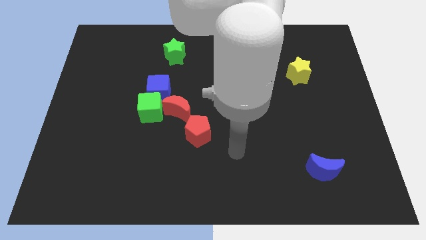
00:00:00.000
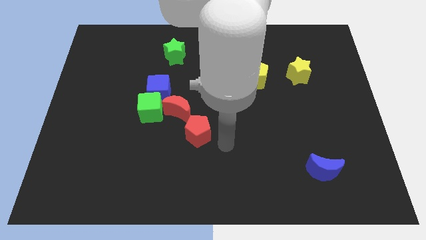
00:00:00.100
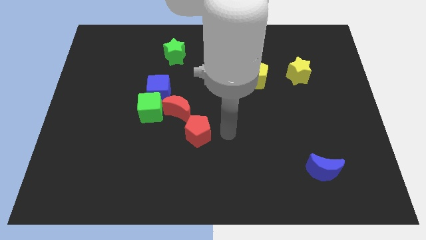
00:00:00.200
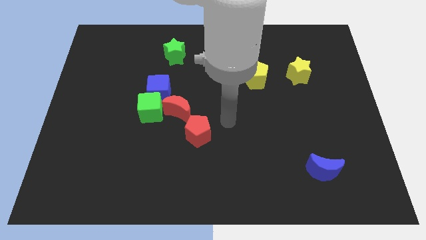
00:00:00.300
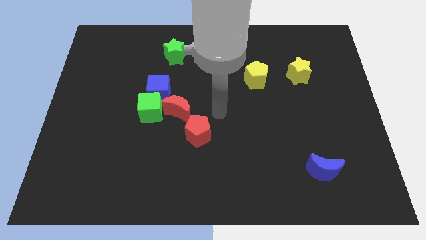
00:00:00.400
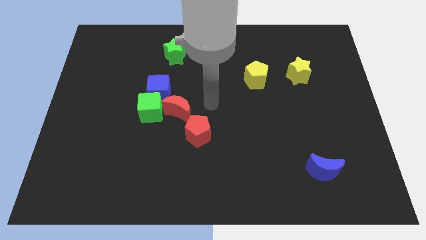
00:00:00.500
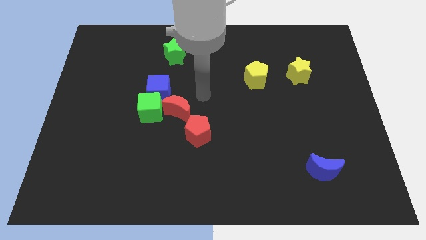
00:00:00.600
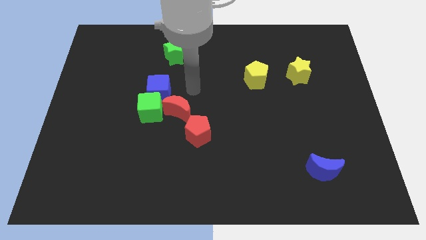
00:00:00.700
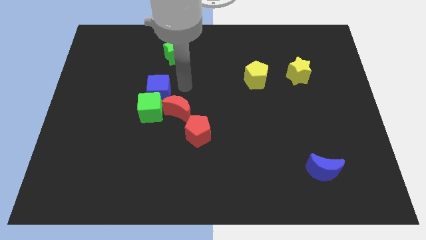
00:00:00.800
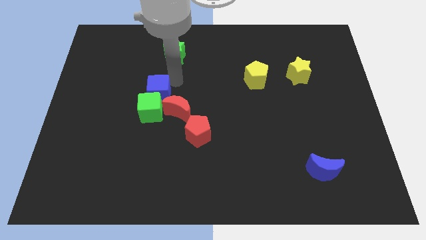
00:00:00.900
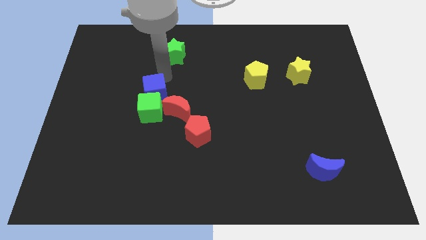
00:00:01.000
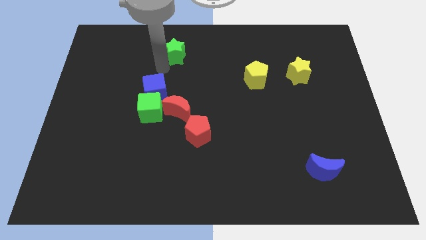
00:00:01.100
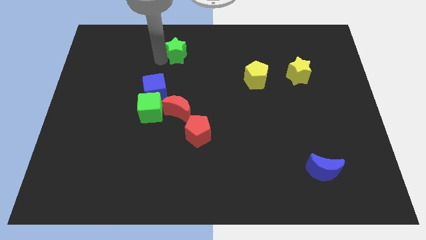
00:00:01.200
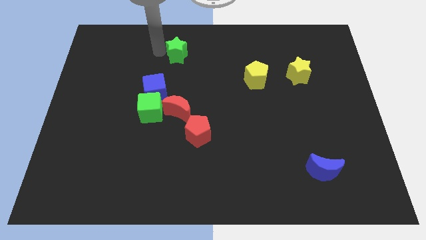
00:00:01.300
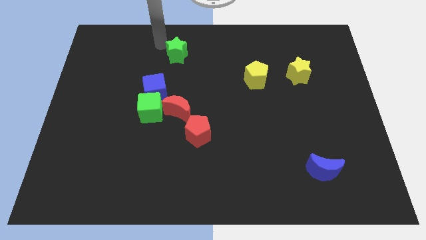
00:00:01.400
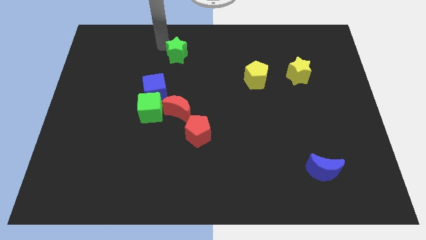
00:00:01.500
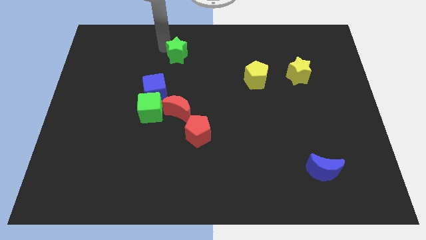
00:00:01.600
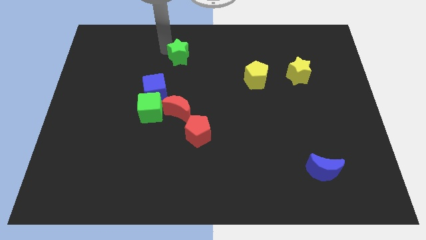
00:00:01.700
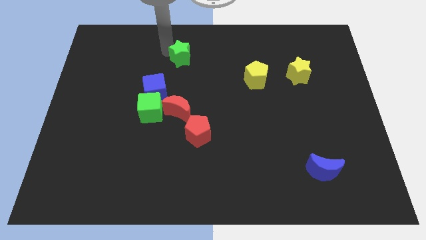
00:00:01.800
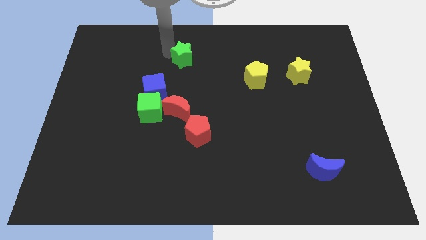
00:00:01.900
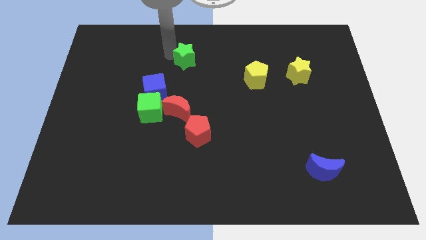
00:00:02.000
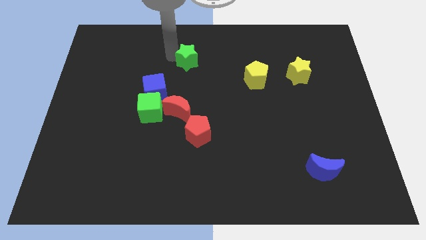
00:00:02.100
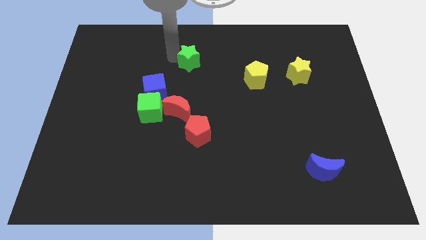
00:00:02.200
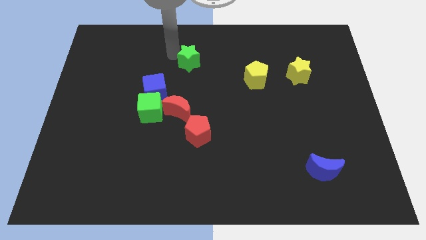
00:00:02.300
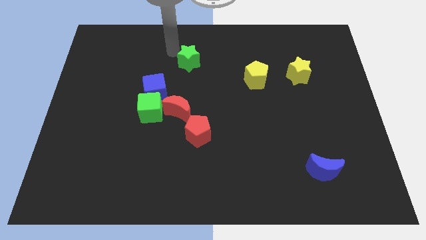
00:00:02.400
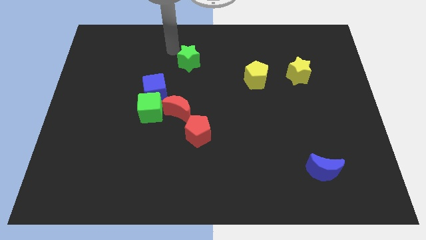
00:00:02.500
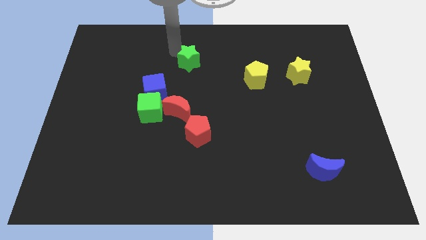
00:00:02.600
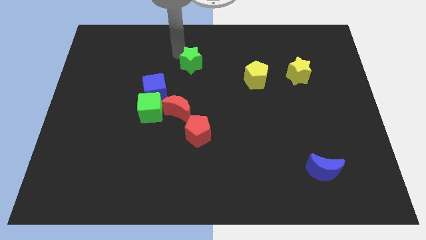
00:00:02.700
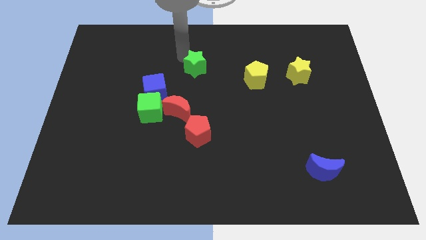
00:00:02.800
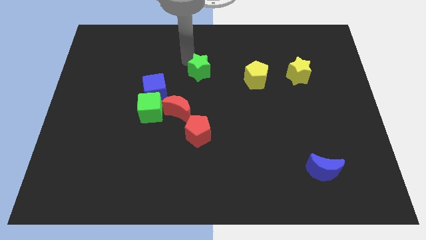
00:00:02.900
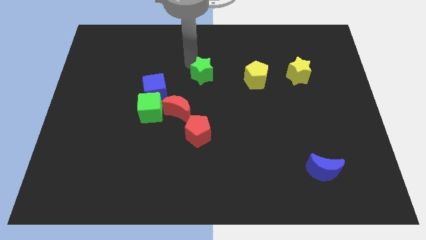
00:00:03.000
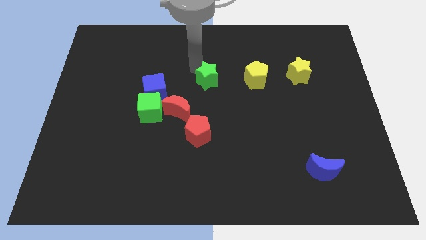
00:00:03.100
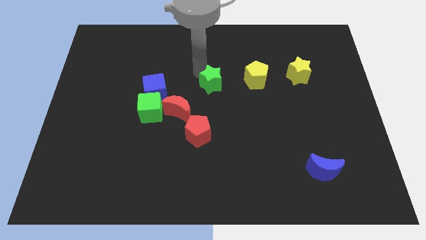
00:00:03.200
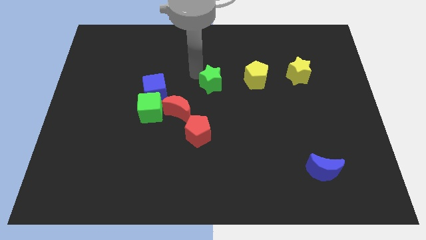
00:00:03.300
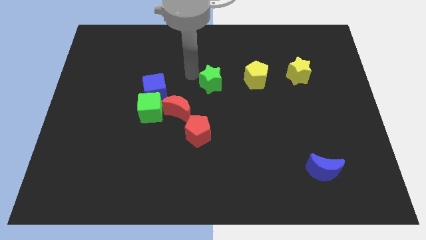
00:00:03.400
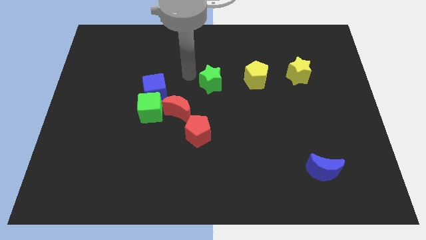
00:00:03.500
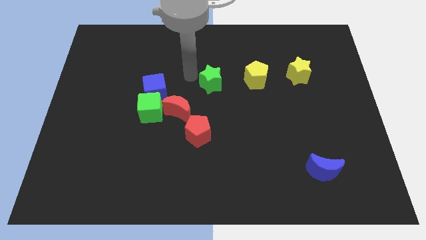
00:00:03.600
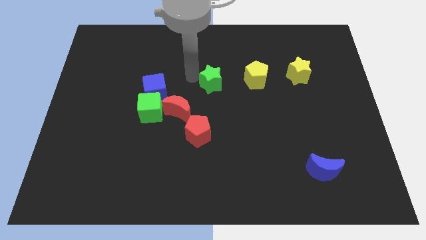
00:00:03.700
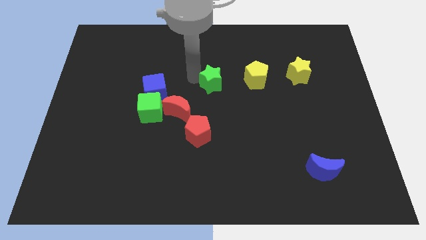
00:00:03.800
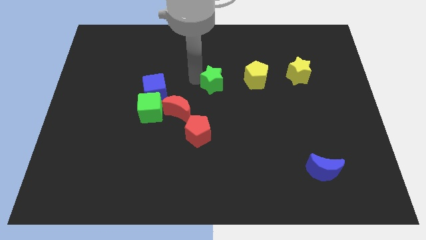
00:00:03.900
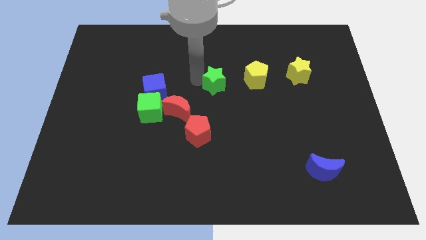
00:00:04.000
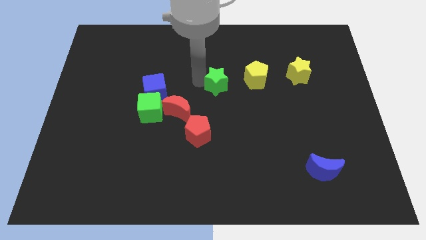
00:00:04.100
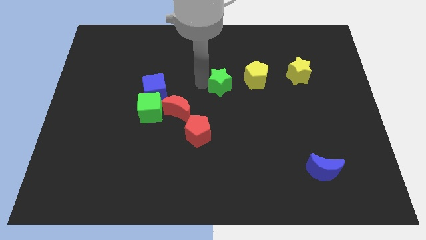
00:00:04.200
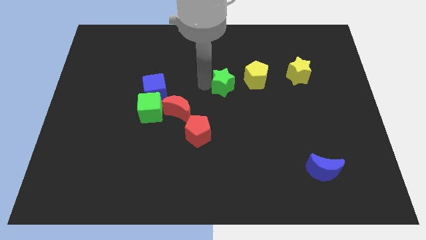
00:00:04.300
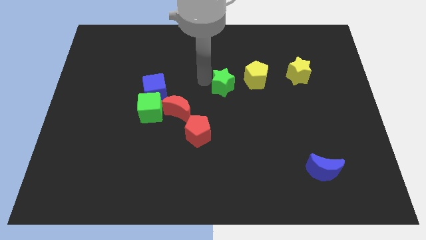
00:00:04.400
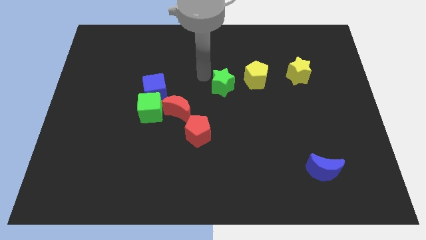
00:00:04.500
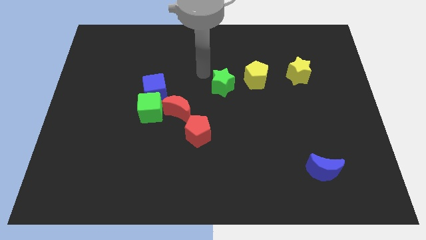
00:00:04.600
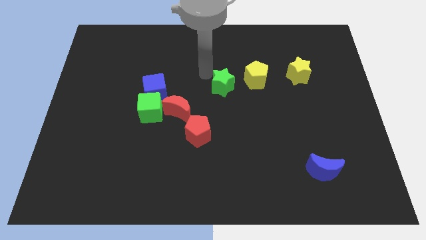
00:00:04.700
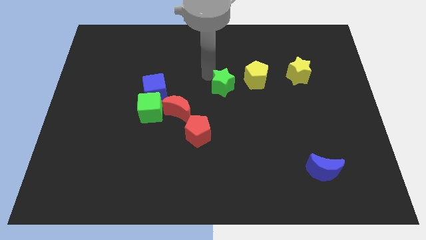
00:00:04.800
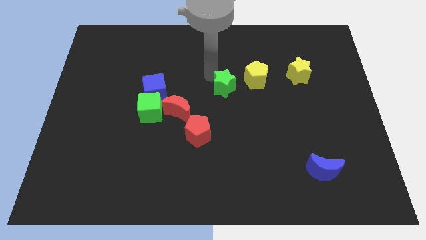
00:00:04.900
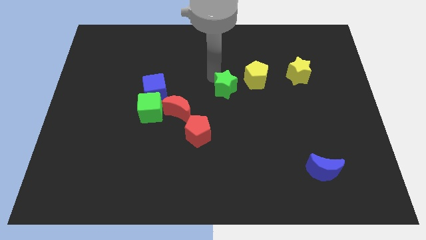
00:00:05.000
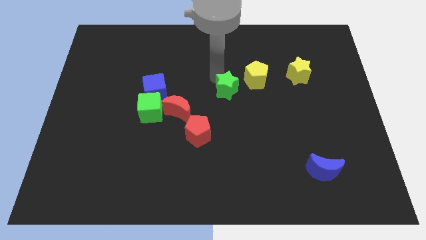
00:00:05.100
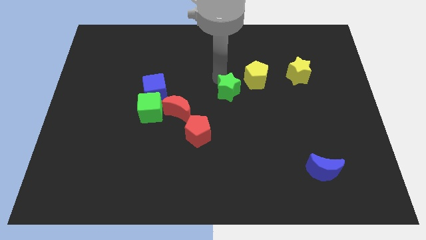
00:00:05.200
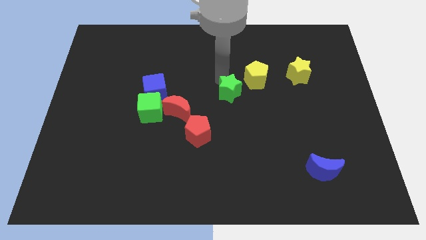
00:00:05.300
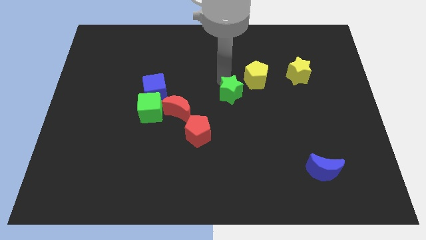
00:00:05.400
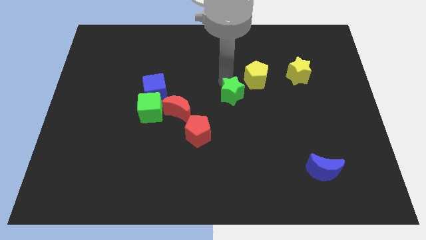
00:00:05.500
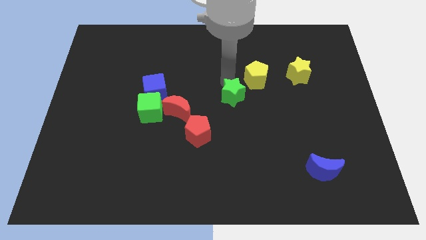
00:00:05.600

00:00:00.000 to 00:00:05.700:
move the green star downwards and right diagonally

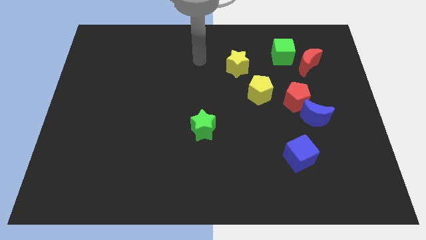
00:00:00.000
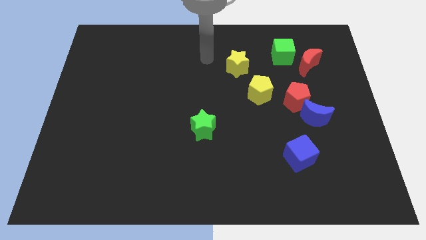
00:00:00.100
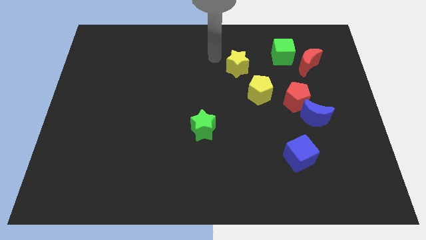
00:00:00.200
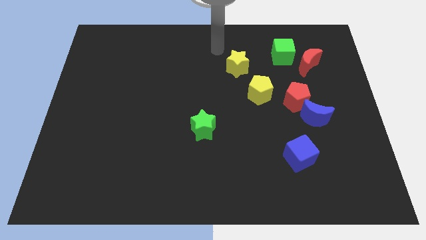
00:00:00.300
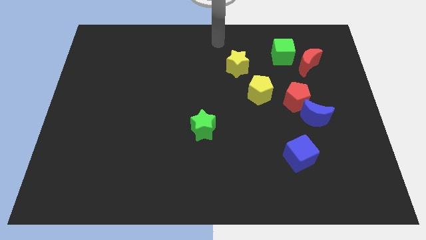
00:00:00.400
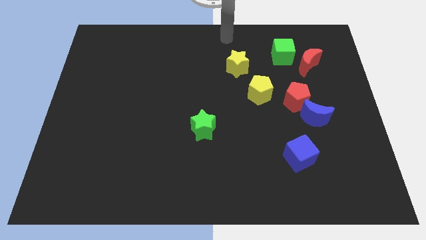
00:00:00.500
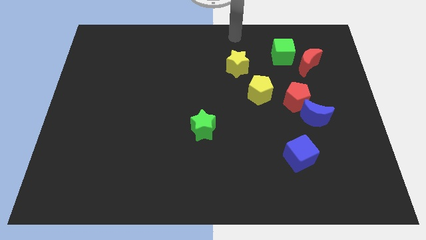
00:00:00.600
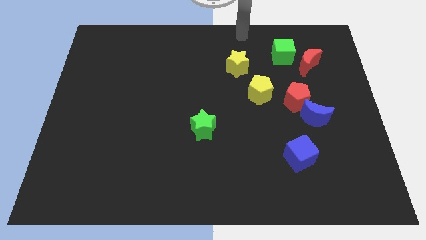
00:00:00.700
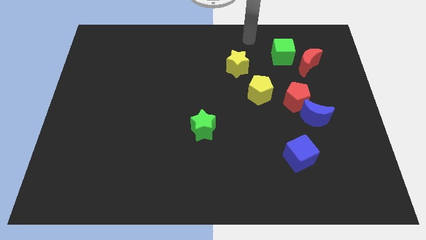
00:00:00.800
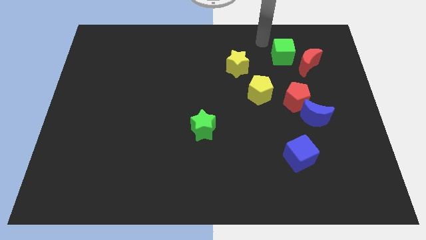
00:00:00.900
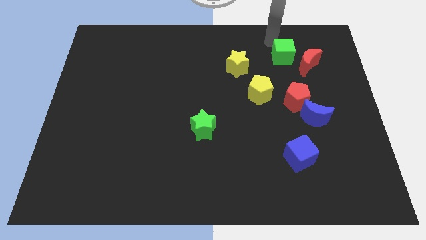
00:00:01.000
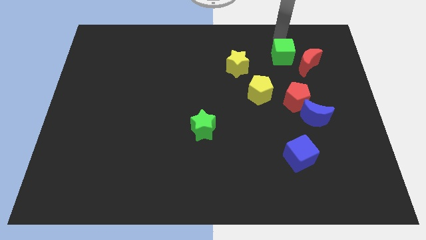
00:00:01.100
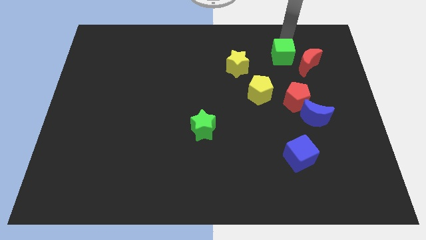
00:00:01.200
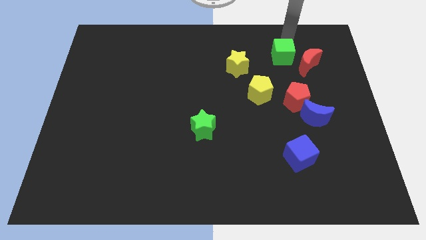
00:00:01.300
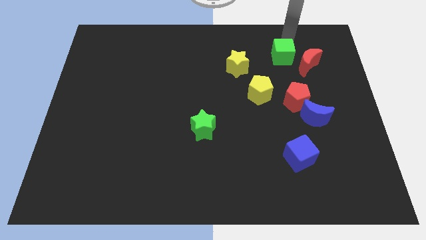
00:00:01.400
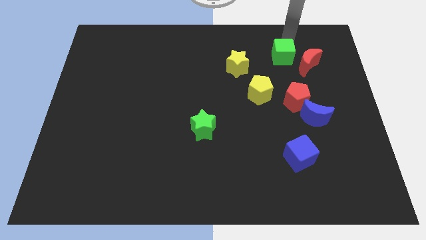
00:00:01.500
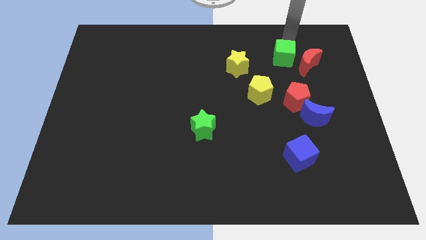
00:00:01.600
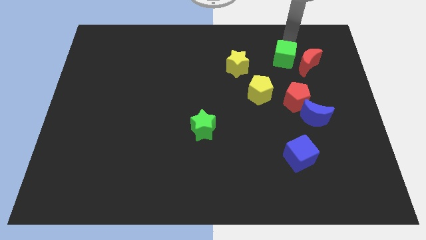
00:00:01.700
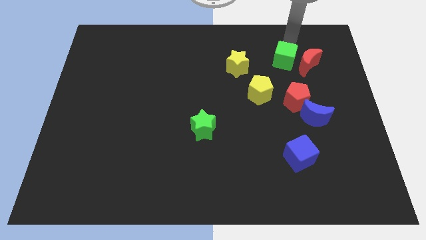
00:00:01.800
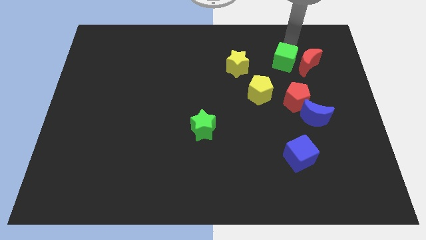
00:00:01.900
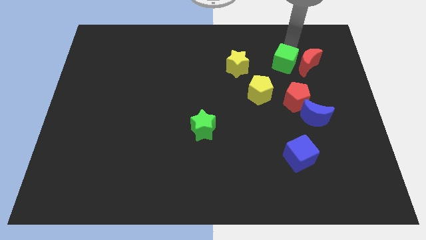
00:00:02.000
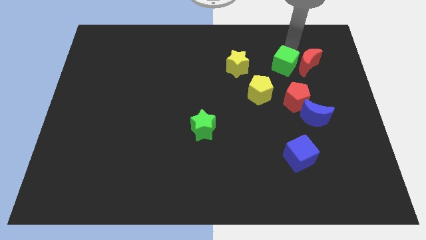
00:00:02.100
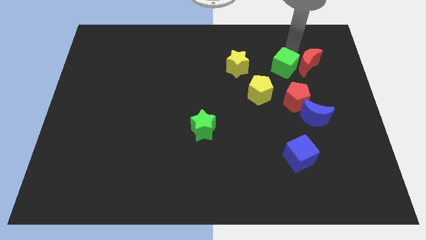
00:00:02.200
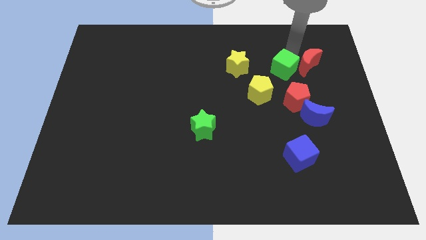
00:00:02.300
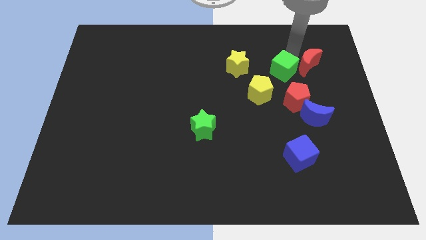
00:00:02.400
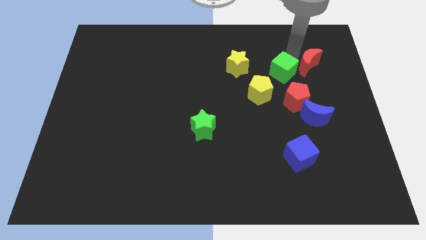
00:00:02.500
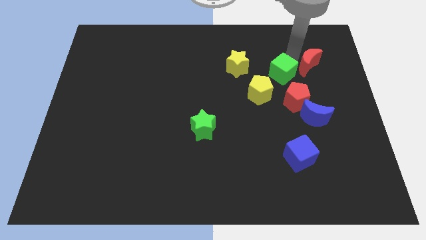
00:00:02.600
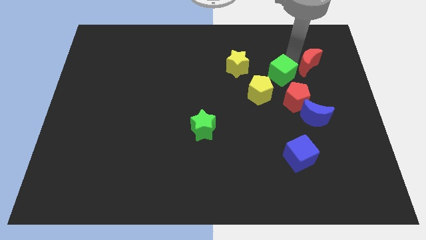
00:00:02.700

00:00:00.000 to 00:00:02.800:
move the green cube downwards slightly
